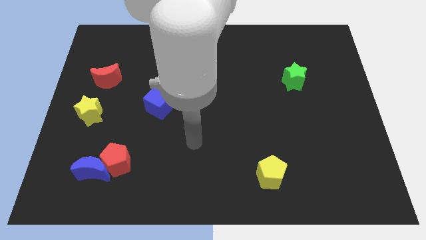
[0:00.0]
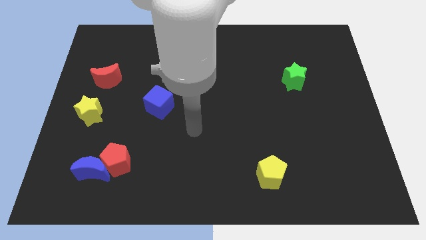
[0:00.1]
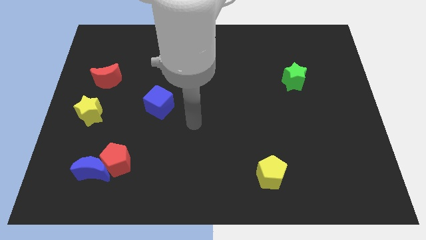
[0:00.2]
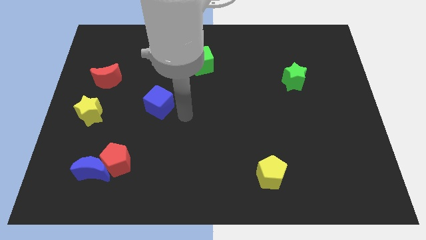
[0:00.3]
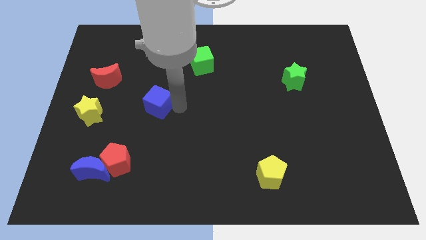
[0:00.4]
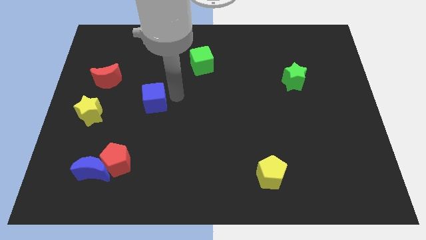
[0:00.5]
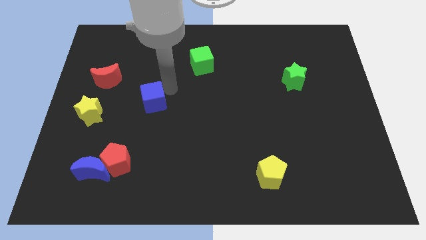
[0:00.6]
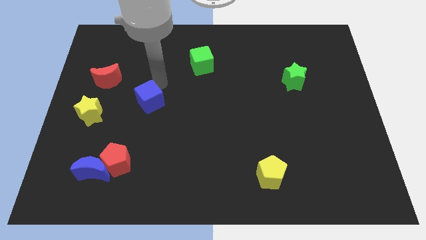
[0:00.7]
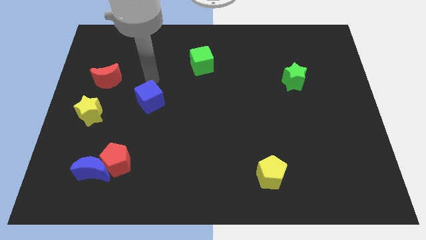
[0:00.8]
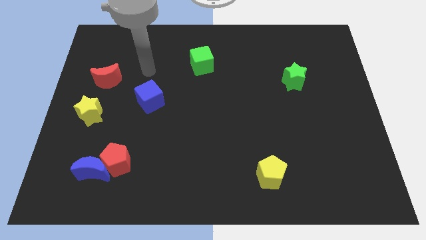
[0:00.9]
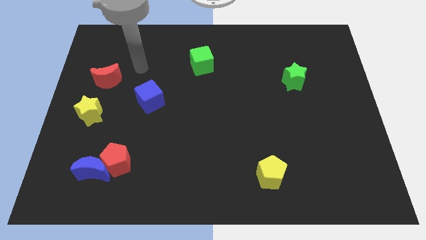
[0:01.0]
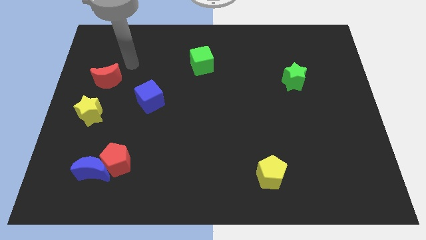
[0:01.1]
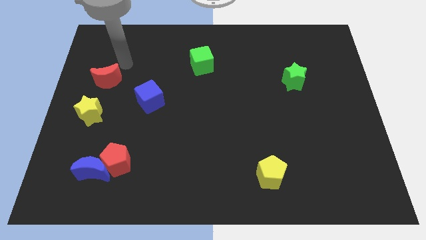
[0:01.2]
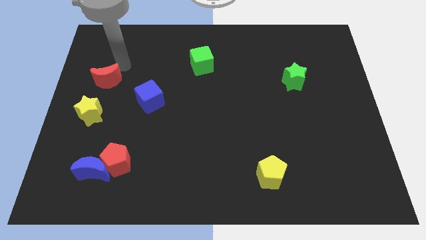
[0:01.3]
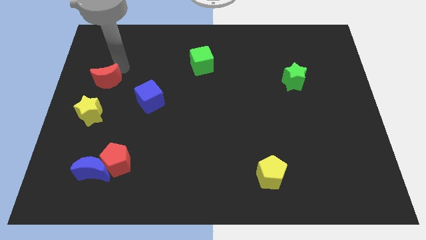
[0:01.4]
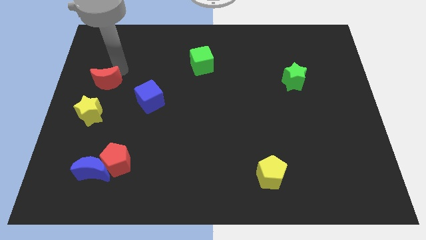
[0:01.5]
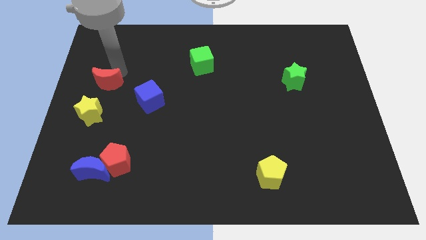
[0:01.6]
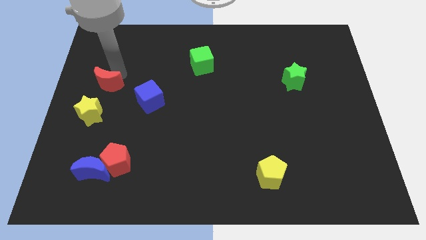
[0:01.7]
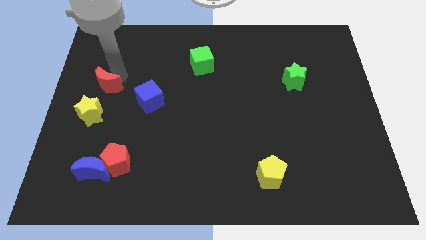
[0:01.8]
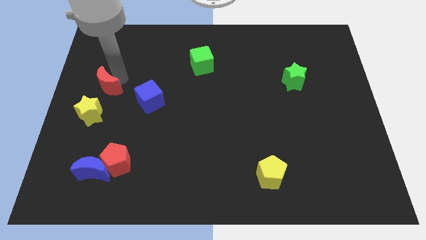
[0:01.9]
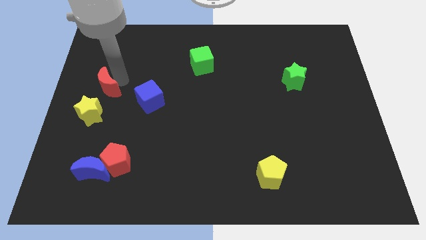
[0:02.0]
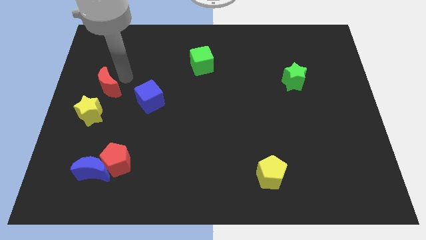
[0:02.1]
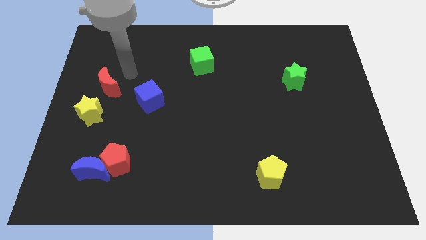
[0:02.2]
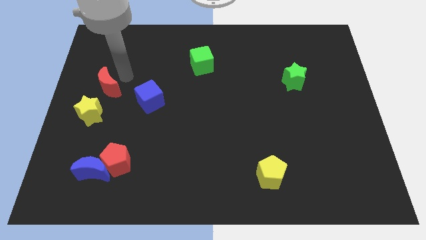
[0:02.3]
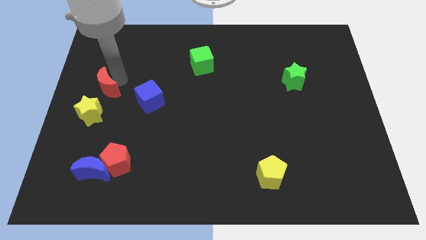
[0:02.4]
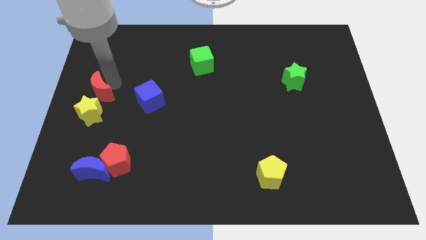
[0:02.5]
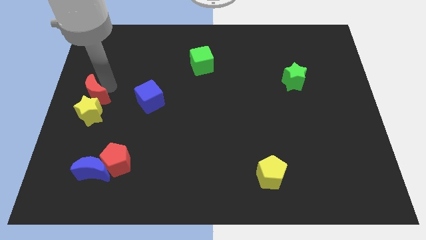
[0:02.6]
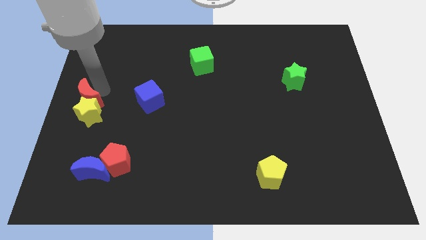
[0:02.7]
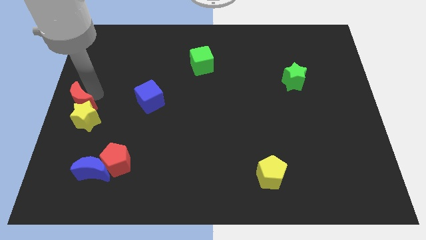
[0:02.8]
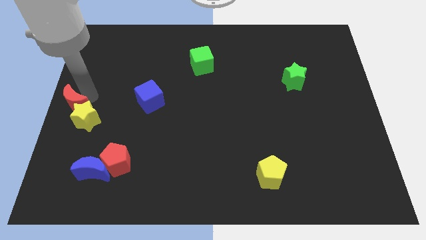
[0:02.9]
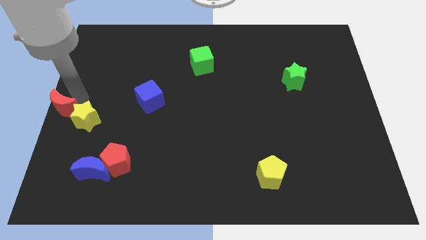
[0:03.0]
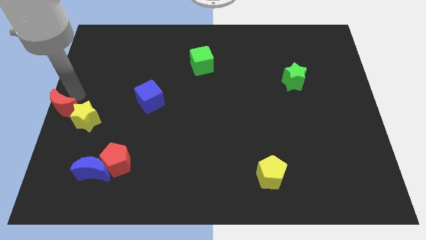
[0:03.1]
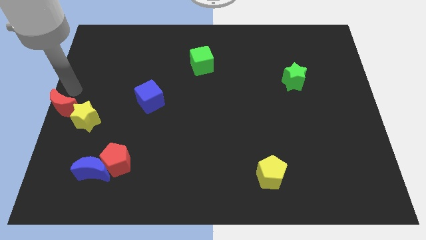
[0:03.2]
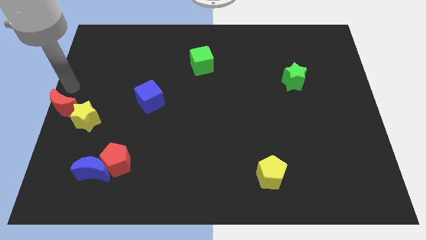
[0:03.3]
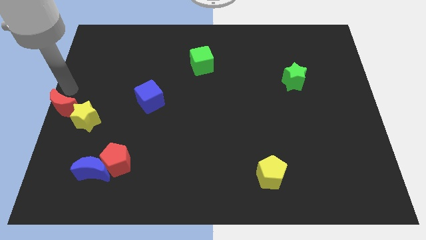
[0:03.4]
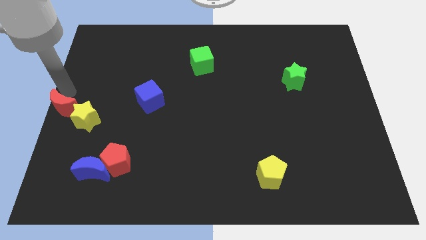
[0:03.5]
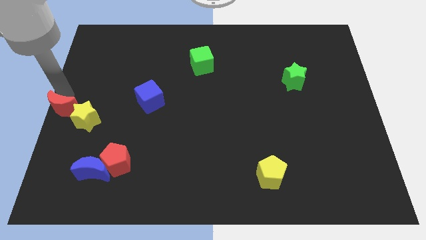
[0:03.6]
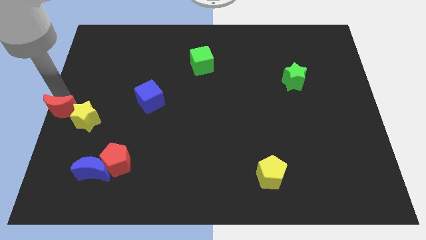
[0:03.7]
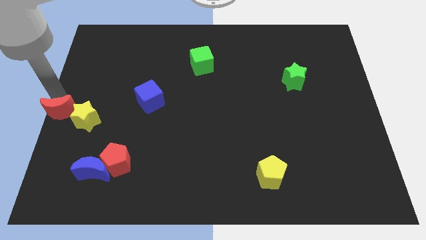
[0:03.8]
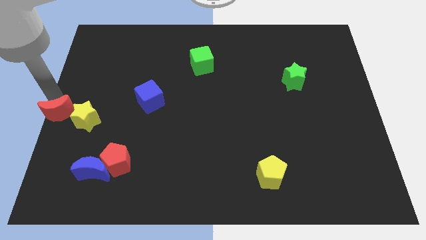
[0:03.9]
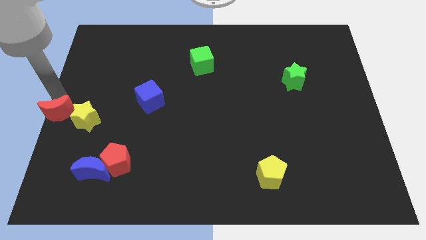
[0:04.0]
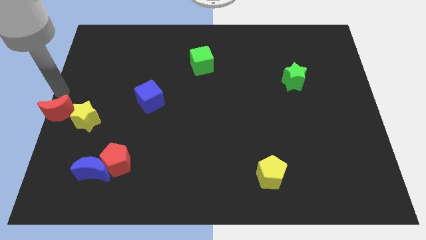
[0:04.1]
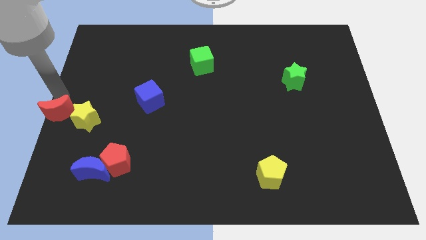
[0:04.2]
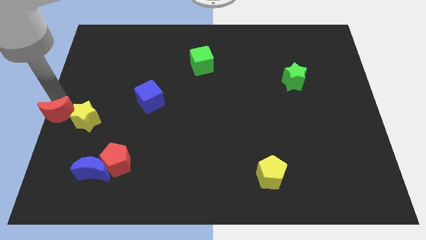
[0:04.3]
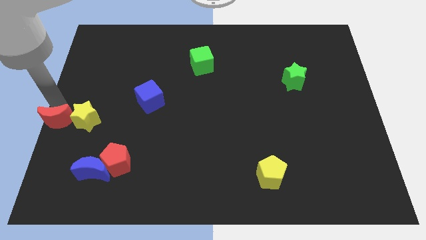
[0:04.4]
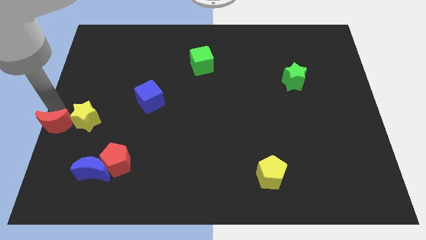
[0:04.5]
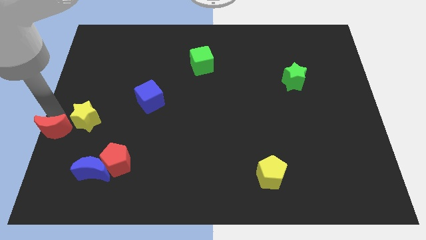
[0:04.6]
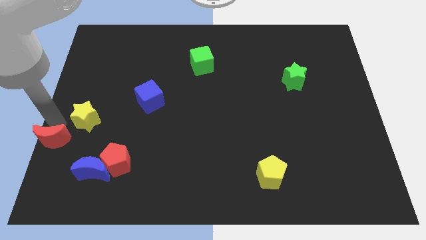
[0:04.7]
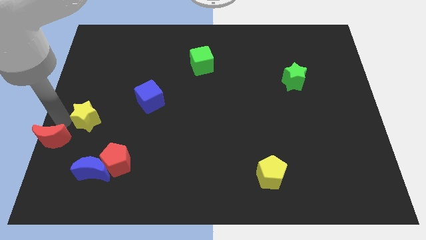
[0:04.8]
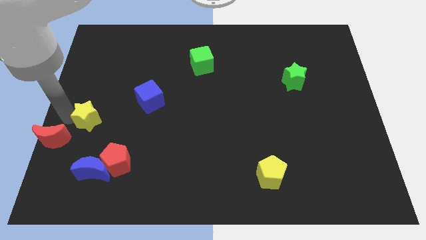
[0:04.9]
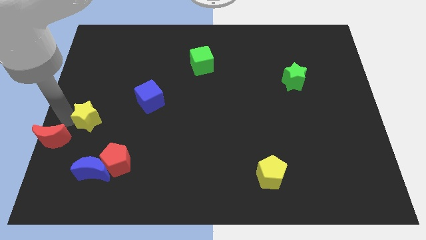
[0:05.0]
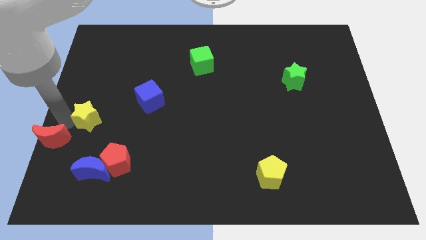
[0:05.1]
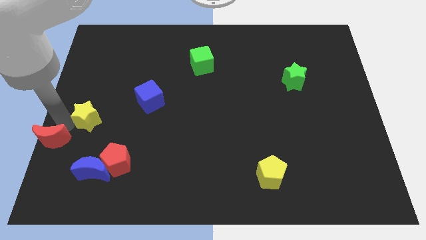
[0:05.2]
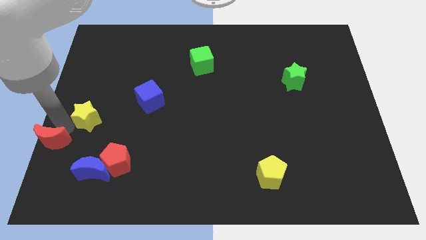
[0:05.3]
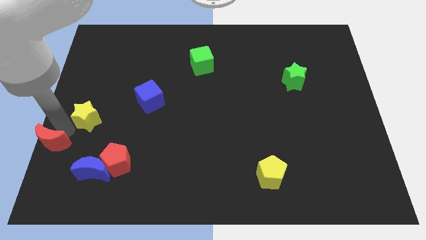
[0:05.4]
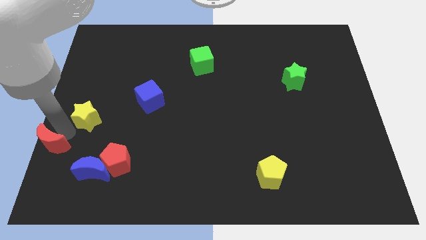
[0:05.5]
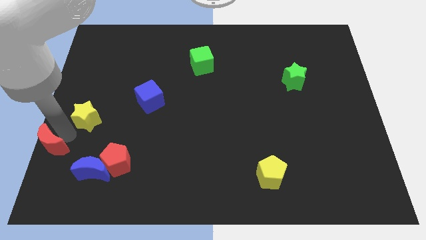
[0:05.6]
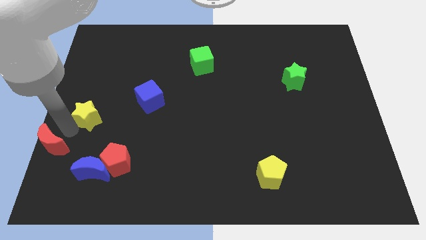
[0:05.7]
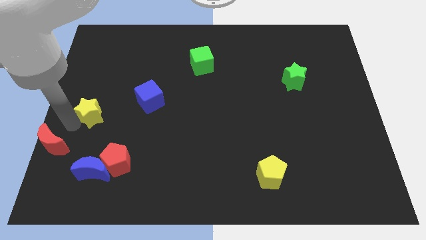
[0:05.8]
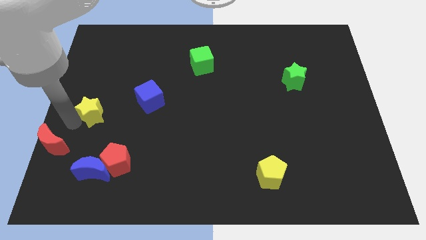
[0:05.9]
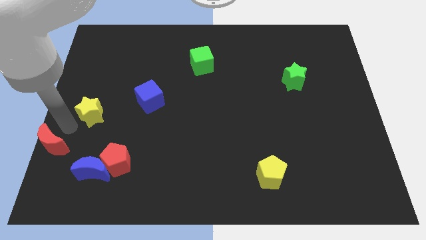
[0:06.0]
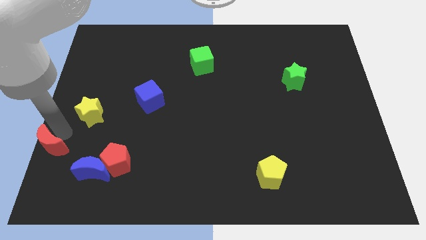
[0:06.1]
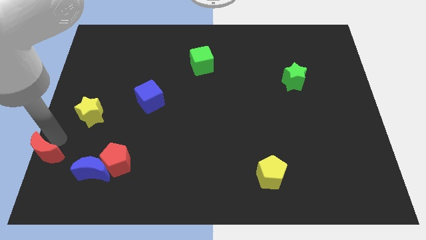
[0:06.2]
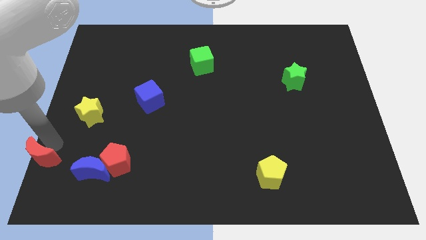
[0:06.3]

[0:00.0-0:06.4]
slide the red moon to the bottom left
